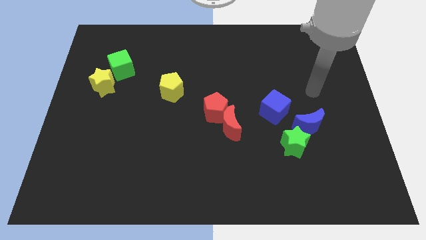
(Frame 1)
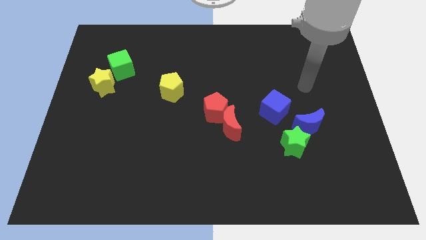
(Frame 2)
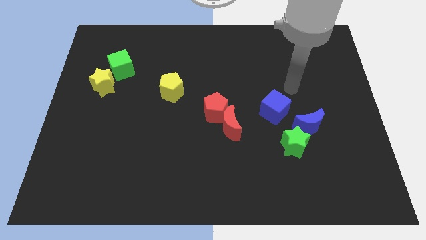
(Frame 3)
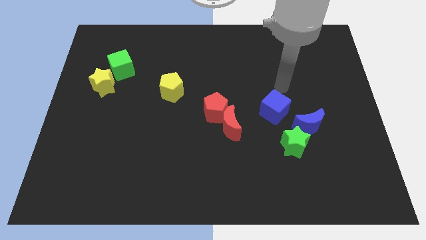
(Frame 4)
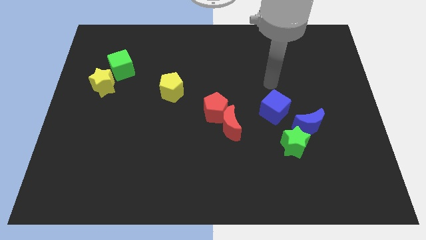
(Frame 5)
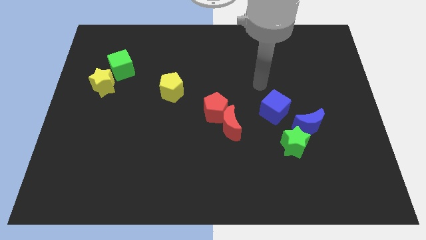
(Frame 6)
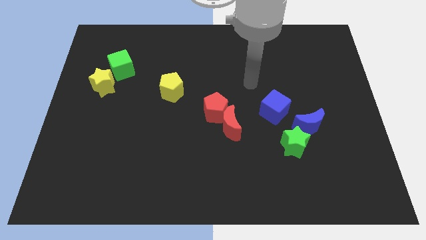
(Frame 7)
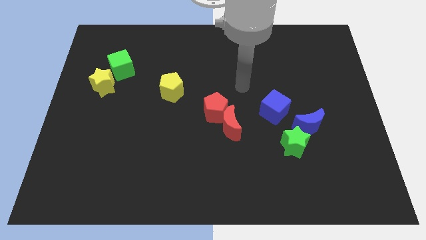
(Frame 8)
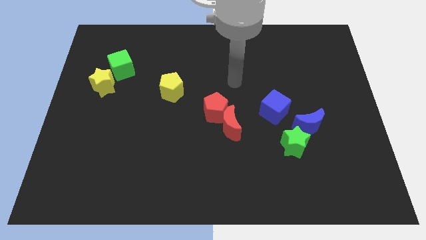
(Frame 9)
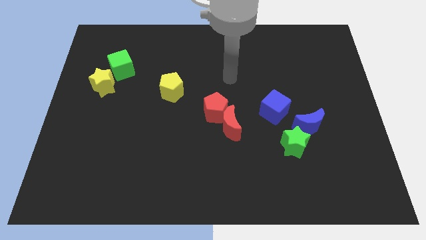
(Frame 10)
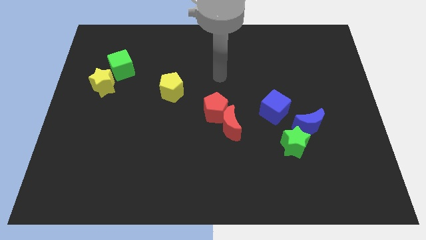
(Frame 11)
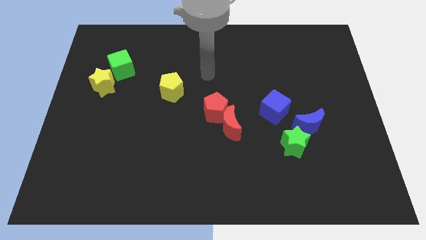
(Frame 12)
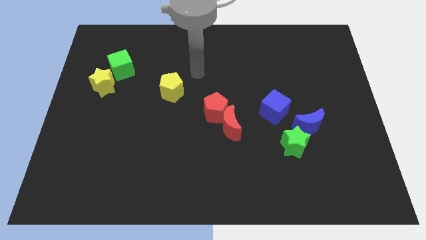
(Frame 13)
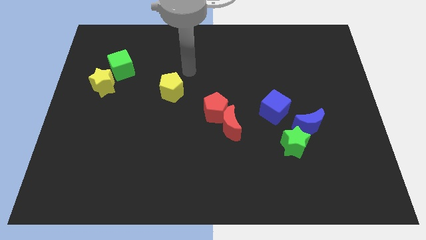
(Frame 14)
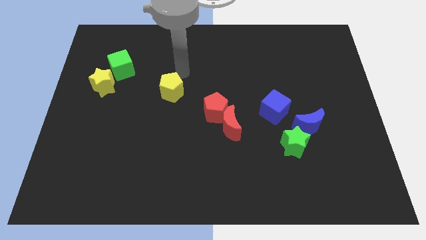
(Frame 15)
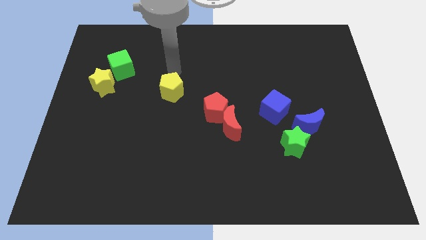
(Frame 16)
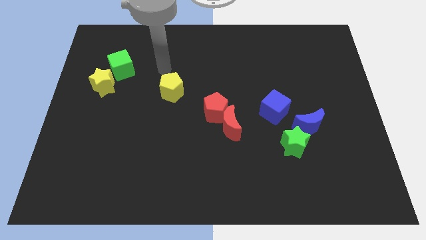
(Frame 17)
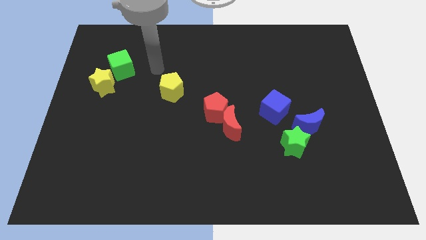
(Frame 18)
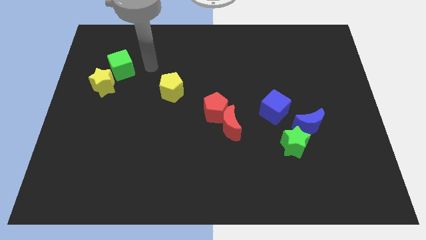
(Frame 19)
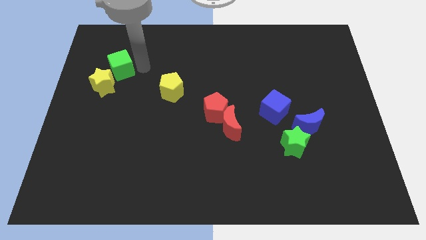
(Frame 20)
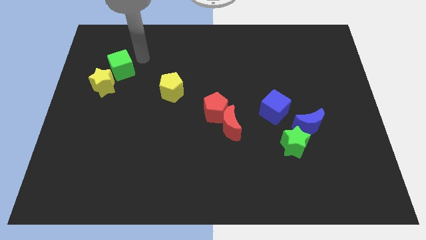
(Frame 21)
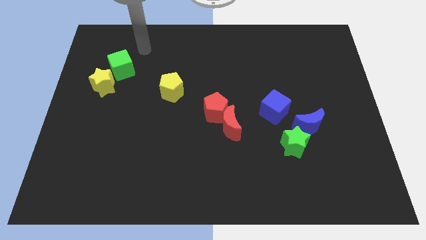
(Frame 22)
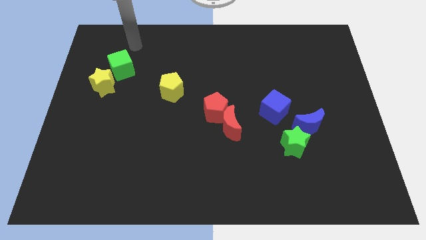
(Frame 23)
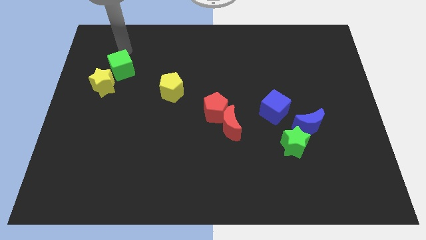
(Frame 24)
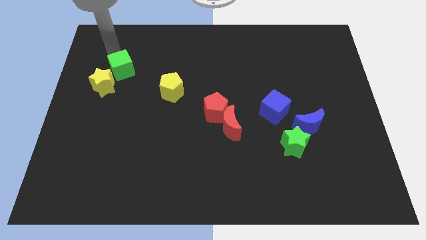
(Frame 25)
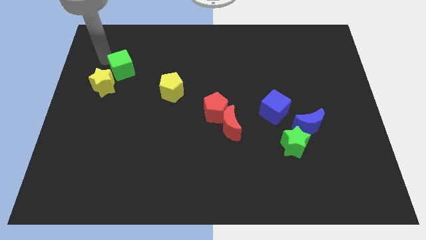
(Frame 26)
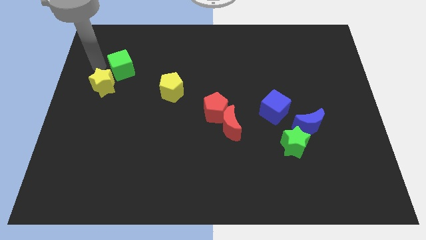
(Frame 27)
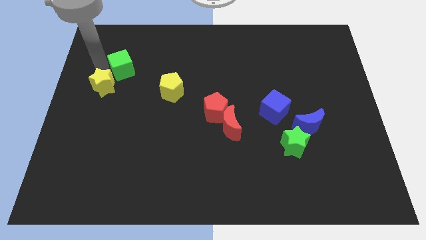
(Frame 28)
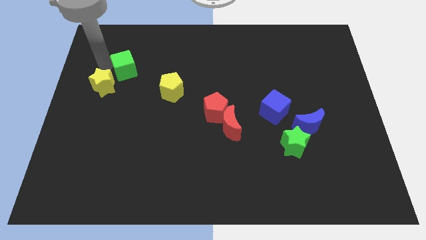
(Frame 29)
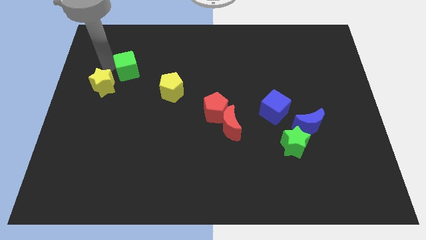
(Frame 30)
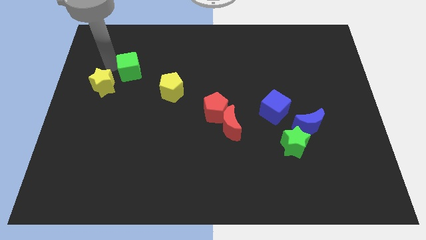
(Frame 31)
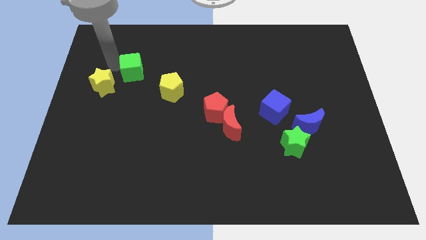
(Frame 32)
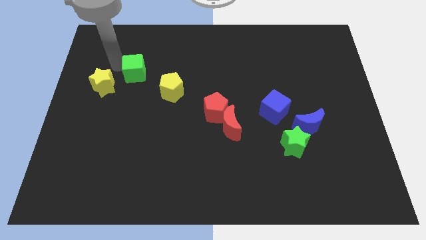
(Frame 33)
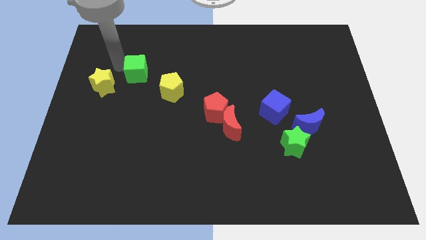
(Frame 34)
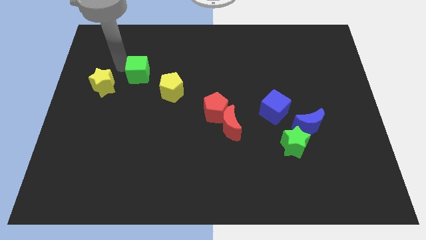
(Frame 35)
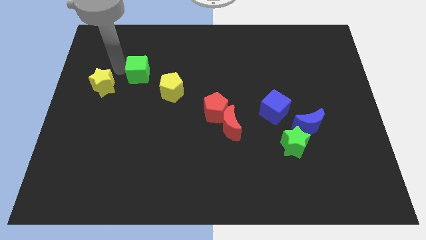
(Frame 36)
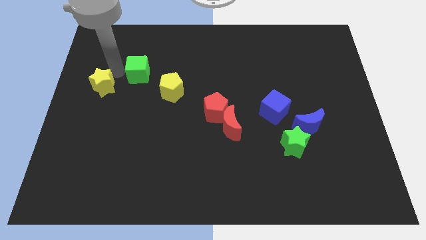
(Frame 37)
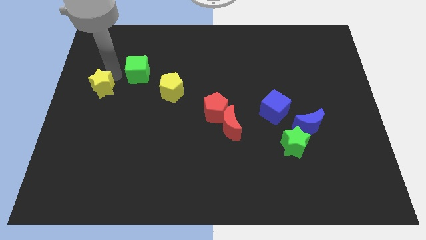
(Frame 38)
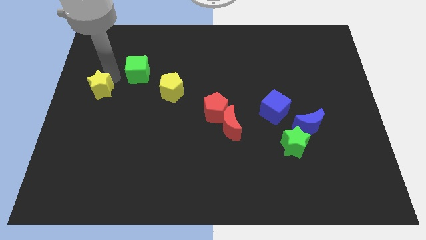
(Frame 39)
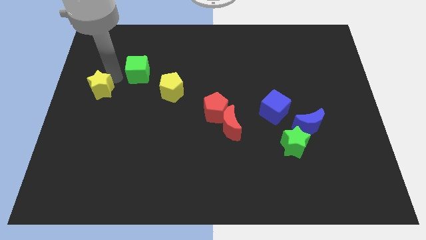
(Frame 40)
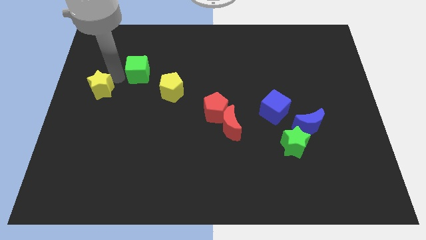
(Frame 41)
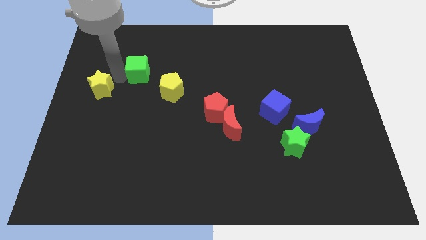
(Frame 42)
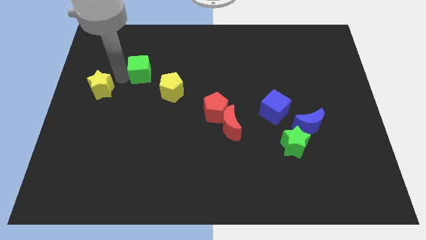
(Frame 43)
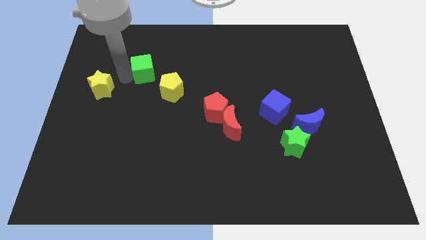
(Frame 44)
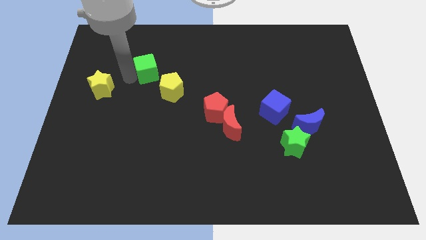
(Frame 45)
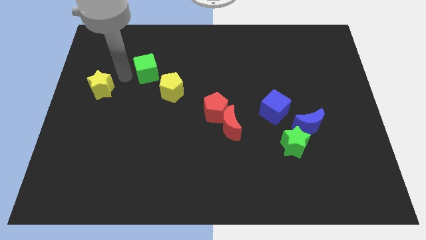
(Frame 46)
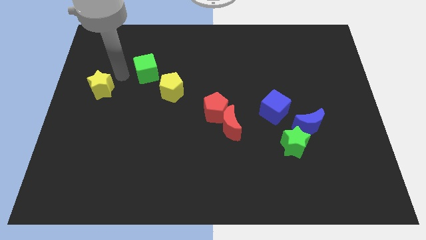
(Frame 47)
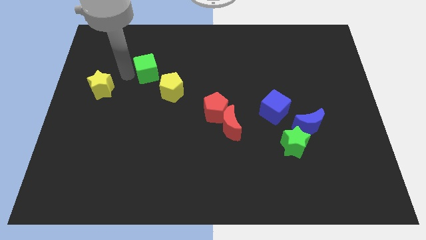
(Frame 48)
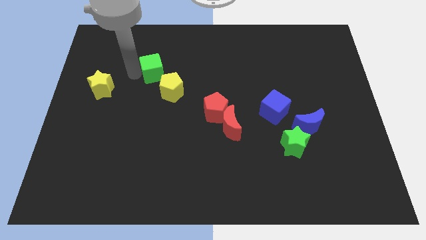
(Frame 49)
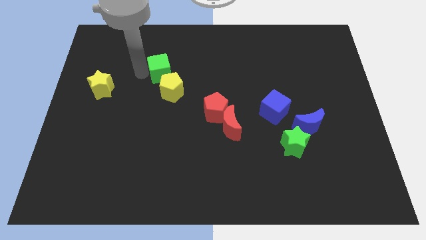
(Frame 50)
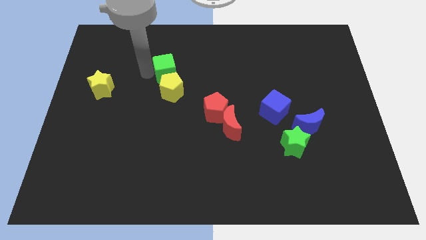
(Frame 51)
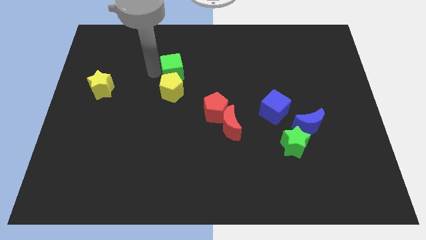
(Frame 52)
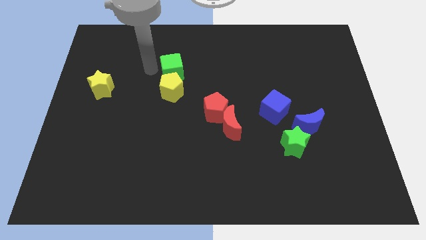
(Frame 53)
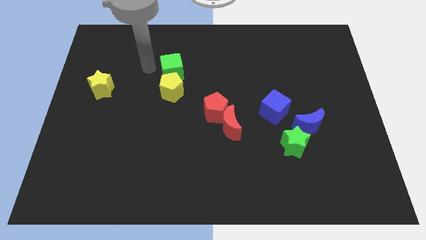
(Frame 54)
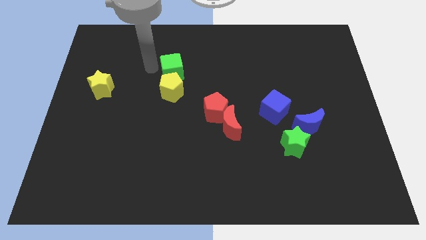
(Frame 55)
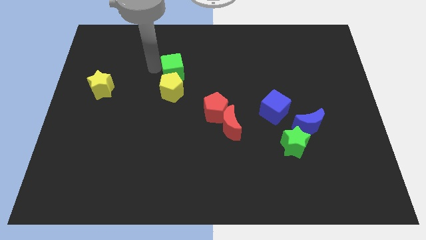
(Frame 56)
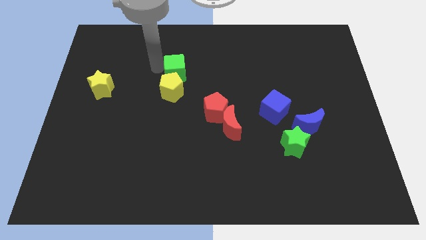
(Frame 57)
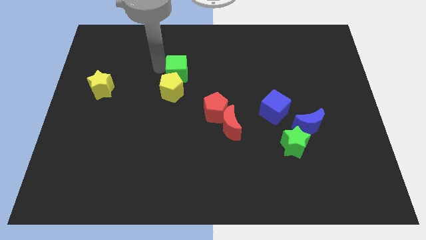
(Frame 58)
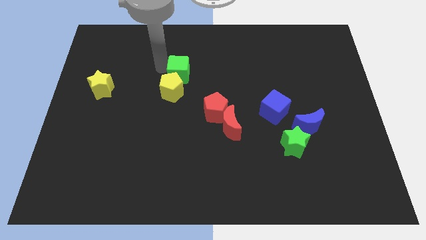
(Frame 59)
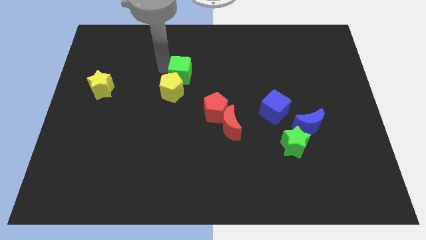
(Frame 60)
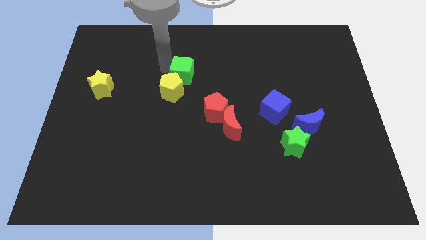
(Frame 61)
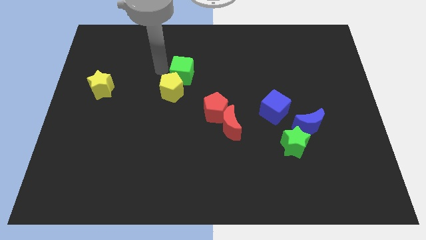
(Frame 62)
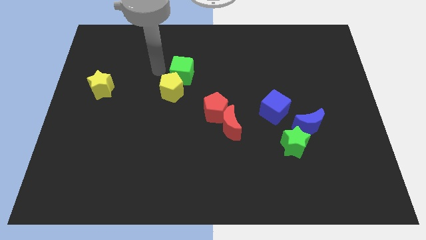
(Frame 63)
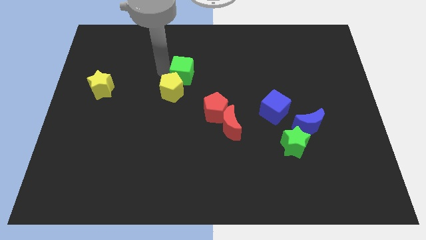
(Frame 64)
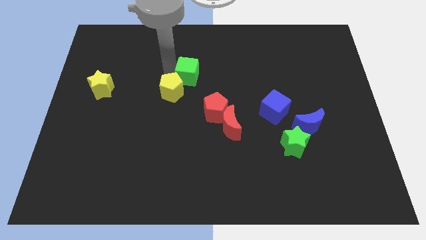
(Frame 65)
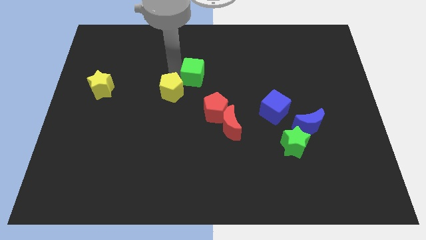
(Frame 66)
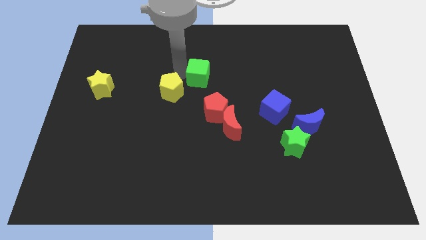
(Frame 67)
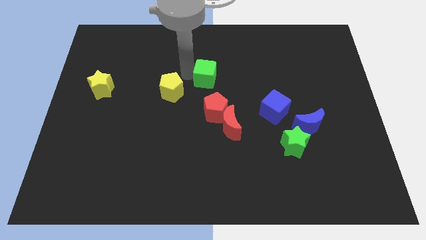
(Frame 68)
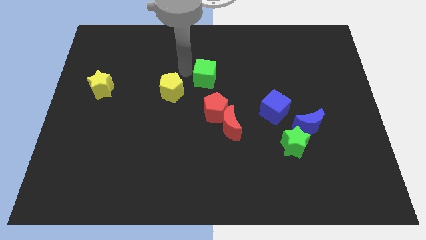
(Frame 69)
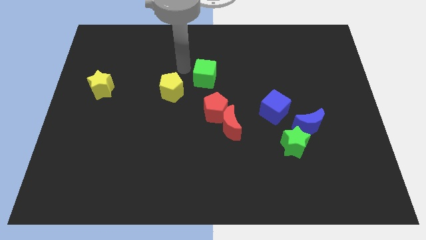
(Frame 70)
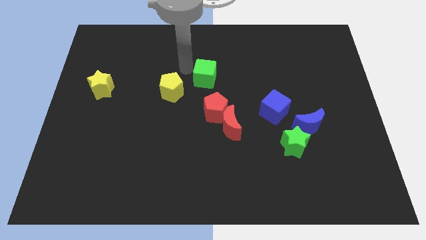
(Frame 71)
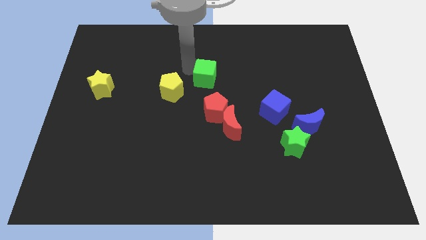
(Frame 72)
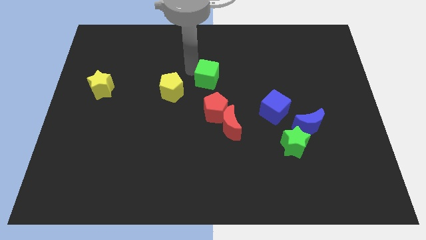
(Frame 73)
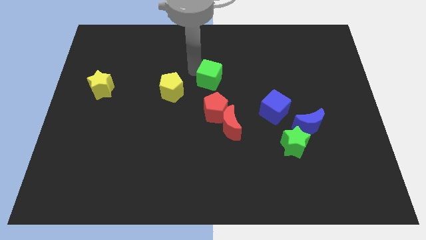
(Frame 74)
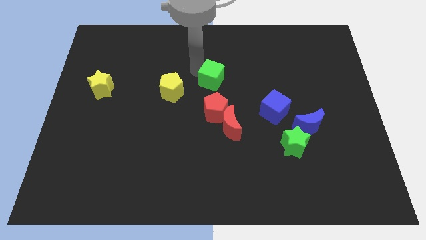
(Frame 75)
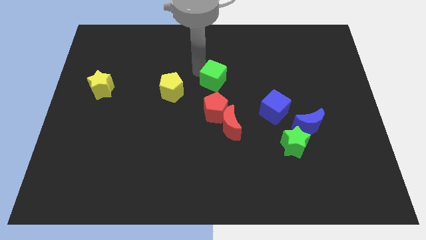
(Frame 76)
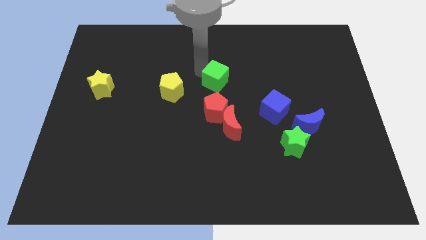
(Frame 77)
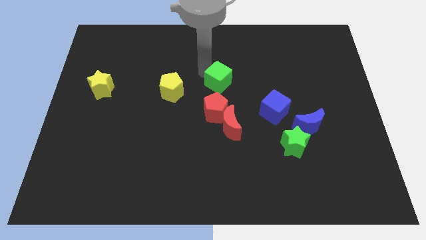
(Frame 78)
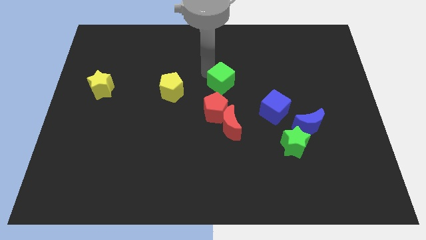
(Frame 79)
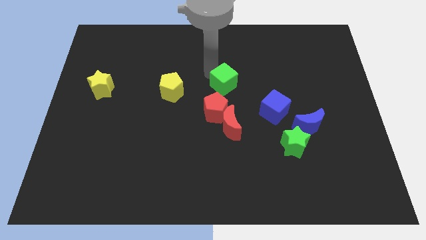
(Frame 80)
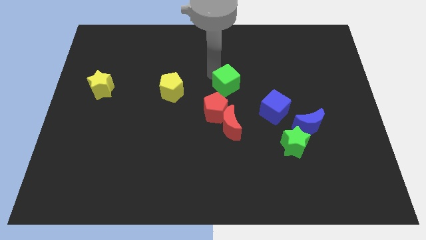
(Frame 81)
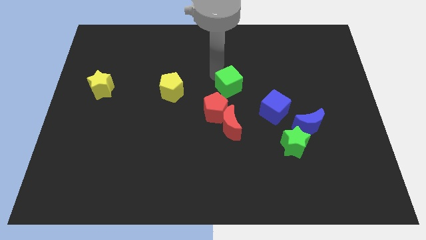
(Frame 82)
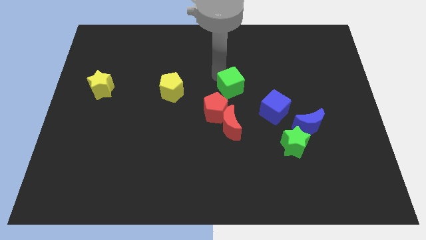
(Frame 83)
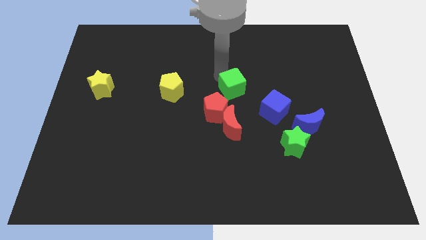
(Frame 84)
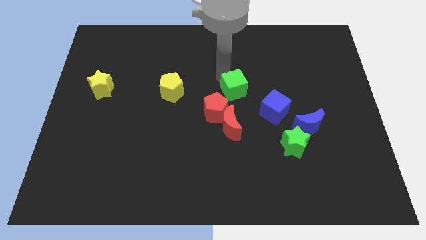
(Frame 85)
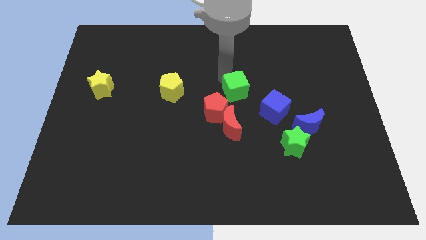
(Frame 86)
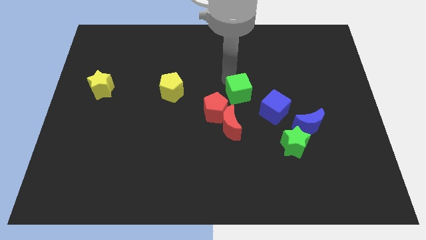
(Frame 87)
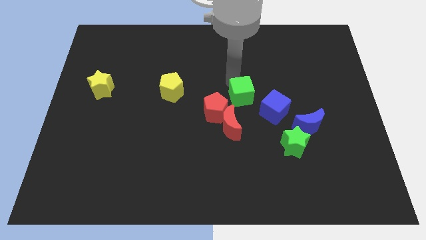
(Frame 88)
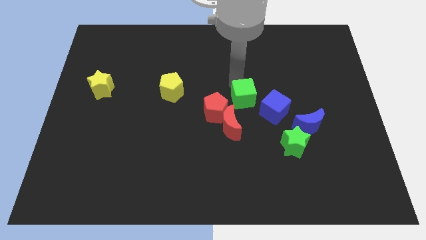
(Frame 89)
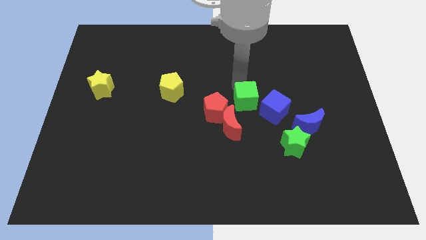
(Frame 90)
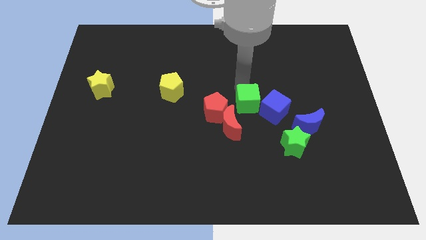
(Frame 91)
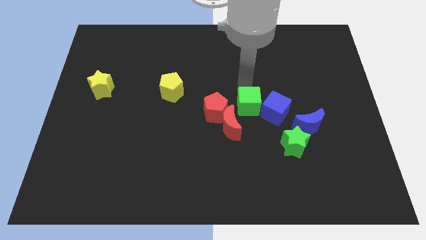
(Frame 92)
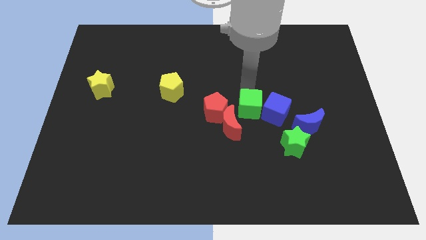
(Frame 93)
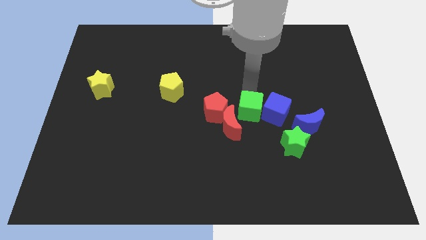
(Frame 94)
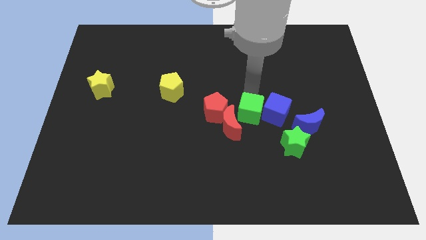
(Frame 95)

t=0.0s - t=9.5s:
slide the green cube next to the red moon
